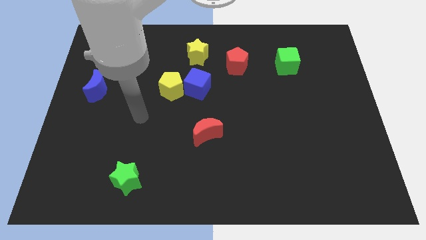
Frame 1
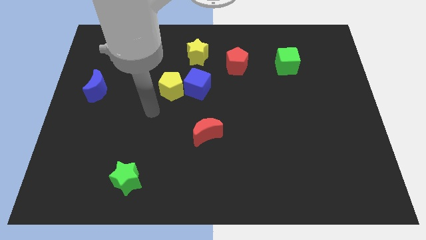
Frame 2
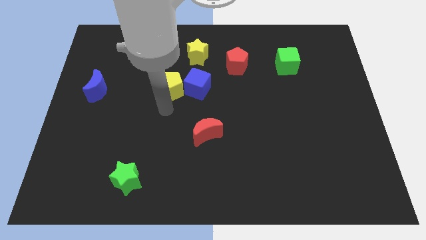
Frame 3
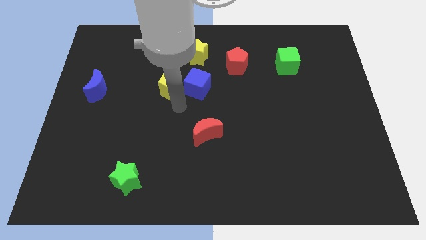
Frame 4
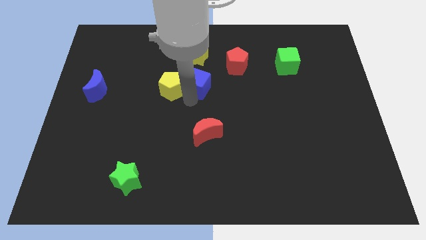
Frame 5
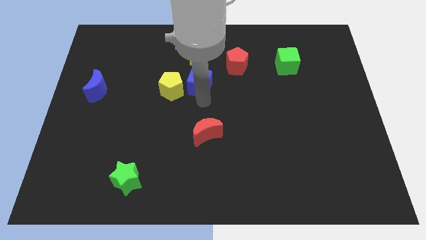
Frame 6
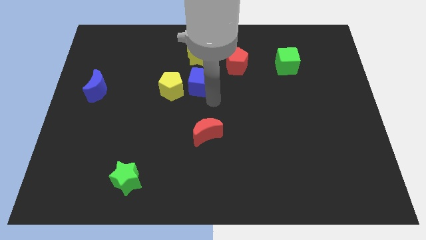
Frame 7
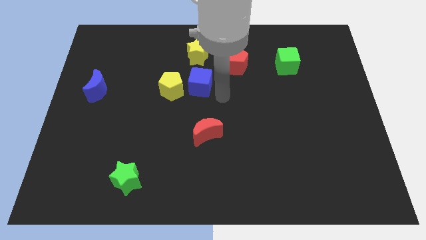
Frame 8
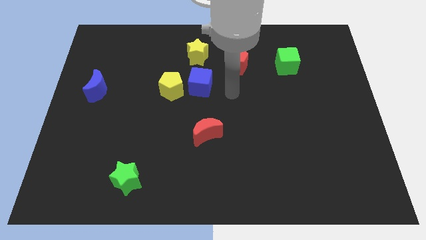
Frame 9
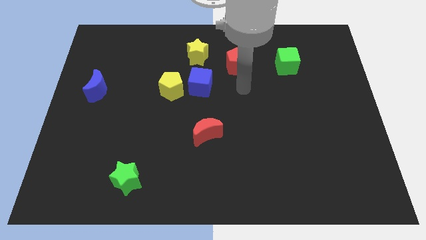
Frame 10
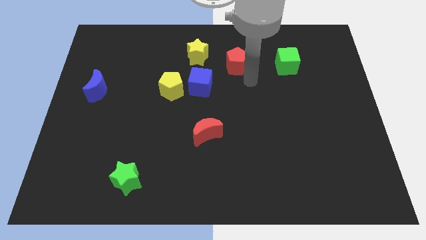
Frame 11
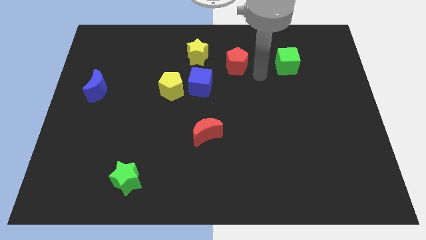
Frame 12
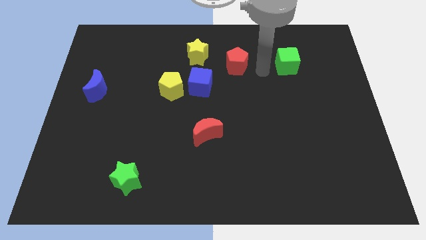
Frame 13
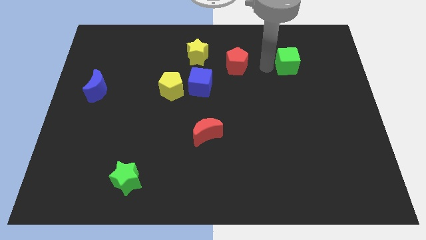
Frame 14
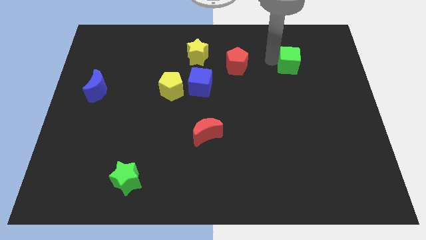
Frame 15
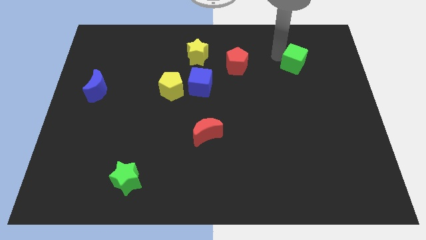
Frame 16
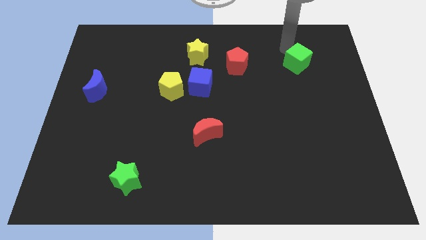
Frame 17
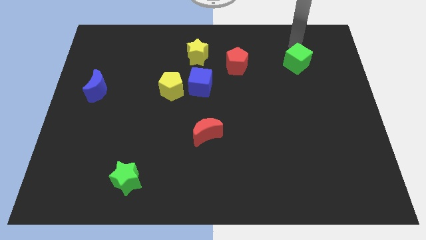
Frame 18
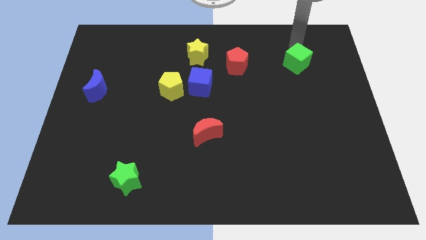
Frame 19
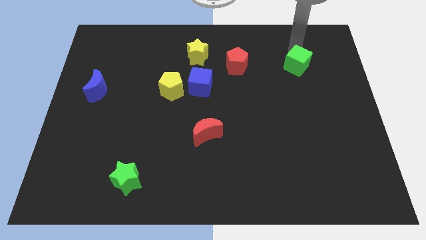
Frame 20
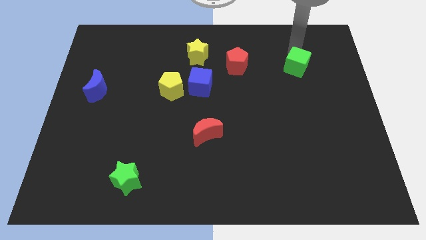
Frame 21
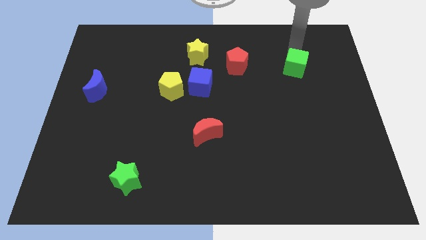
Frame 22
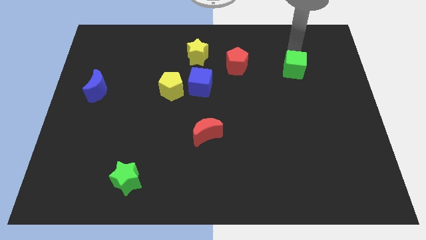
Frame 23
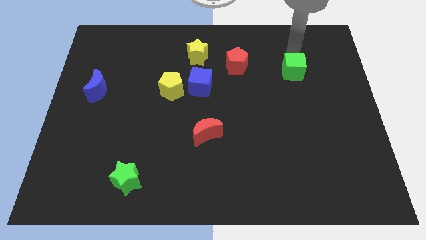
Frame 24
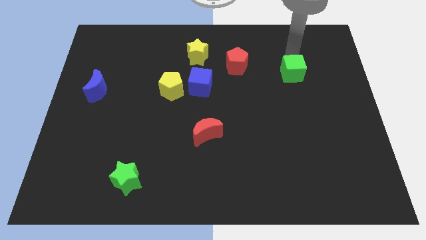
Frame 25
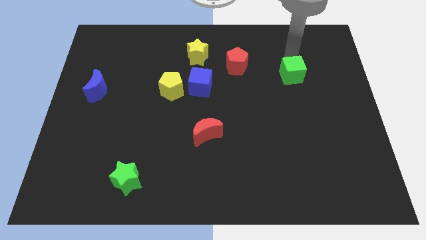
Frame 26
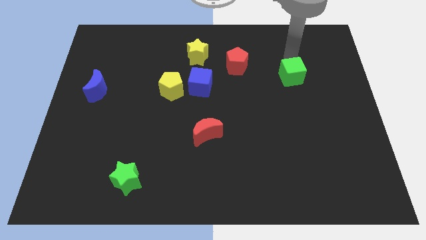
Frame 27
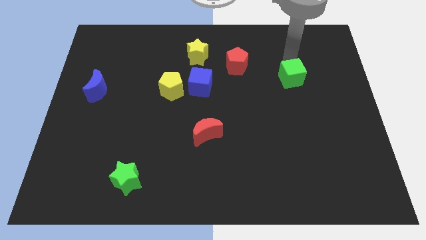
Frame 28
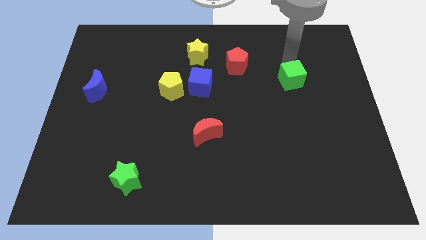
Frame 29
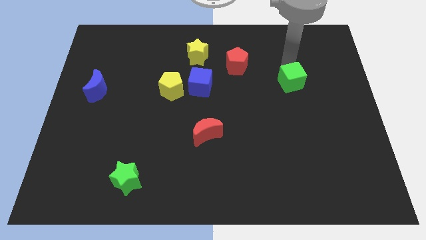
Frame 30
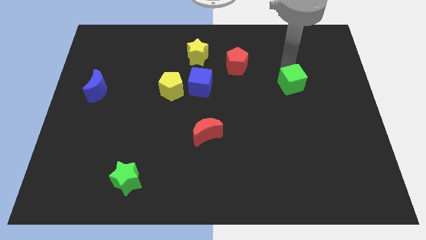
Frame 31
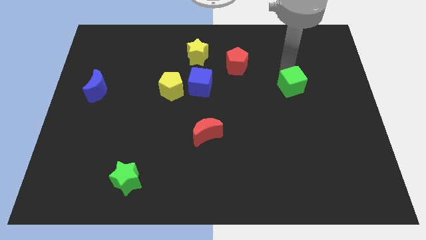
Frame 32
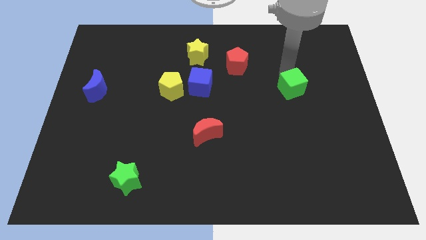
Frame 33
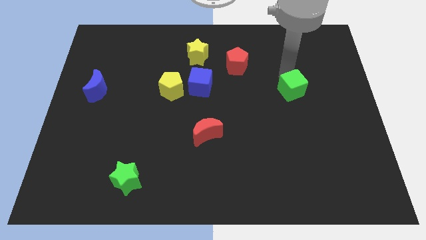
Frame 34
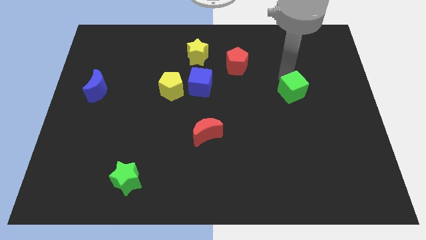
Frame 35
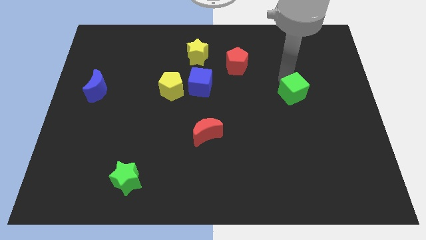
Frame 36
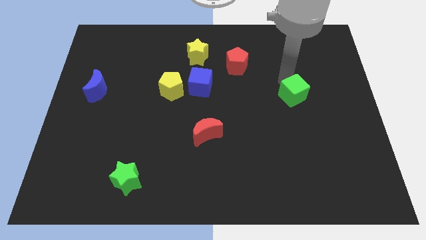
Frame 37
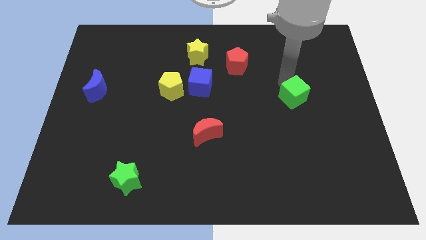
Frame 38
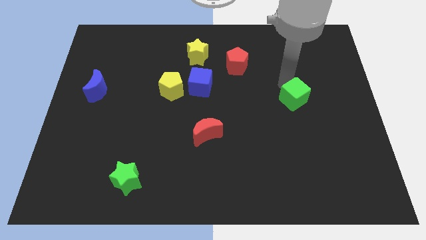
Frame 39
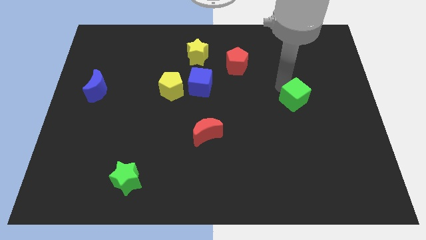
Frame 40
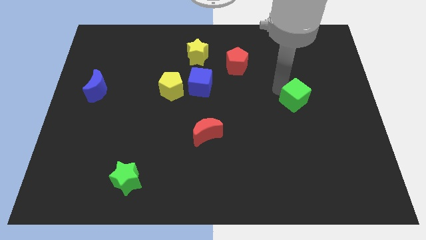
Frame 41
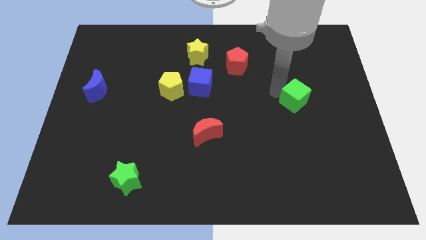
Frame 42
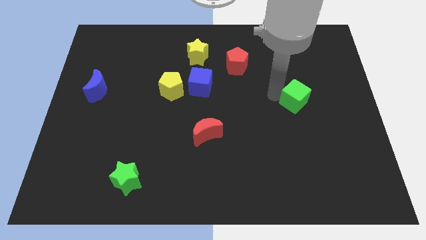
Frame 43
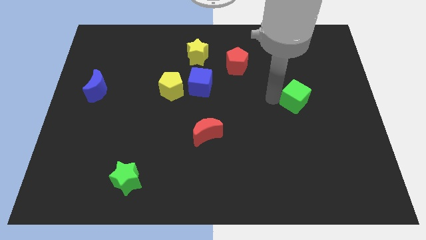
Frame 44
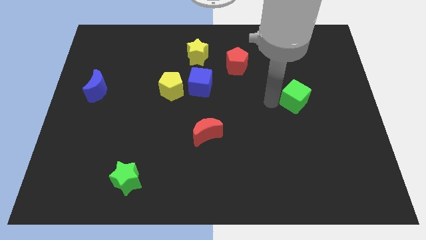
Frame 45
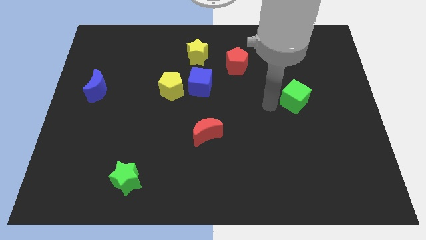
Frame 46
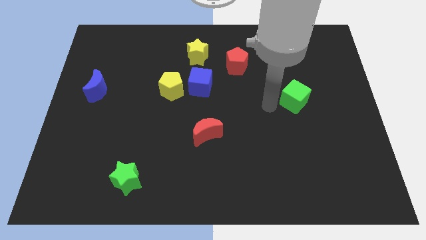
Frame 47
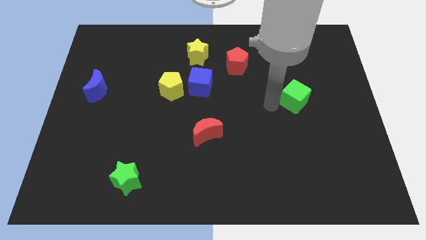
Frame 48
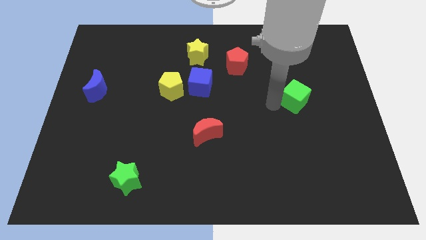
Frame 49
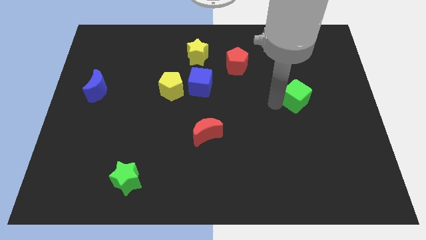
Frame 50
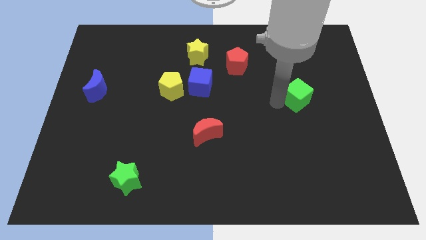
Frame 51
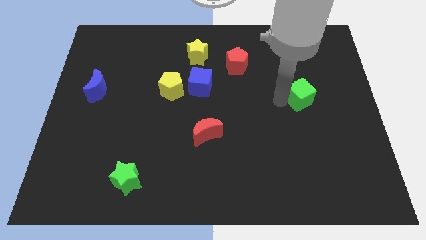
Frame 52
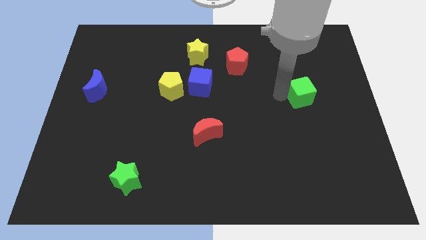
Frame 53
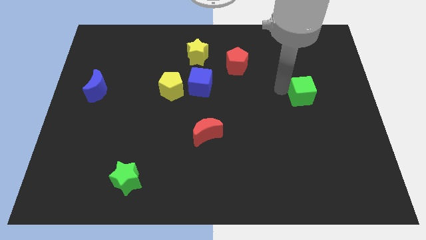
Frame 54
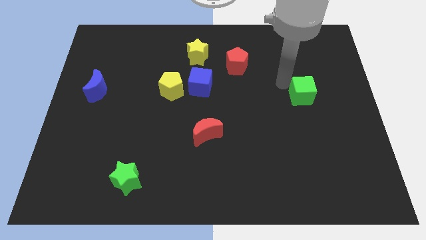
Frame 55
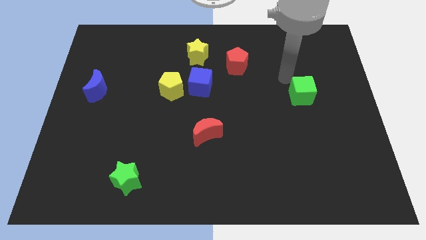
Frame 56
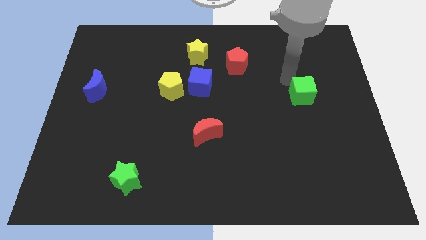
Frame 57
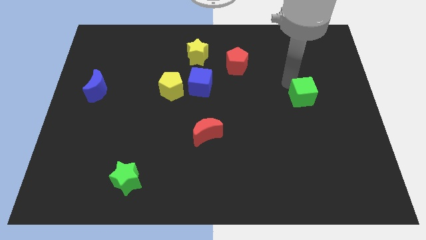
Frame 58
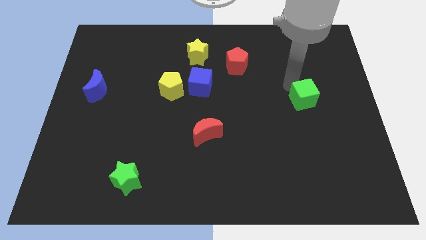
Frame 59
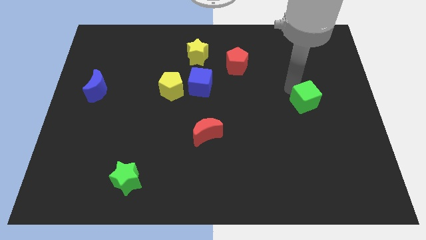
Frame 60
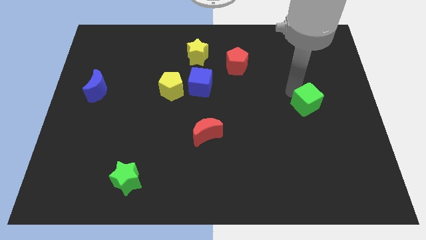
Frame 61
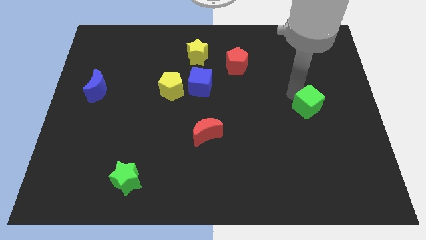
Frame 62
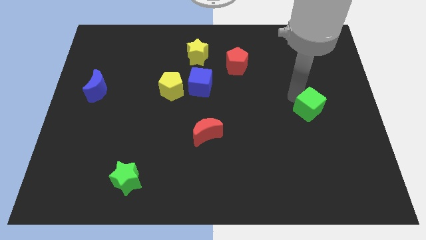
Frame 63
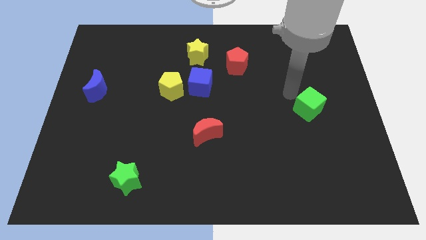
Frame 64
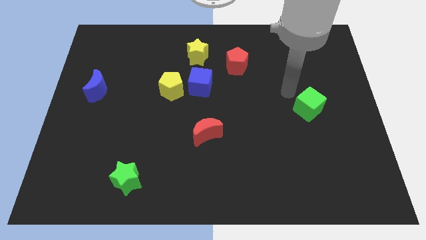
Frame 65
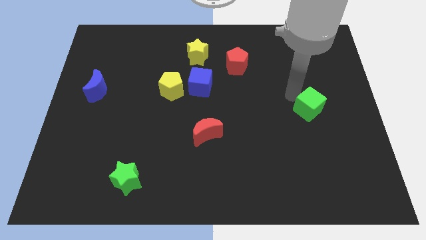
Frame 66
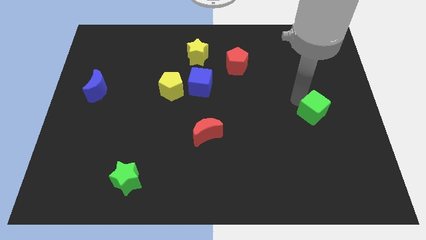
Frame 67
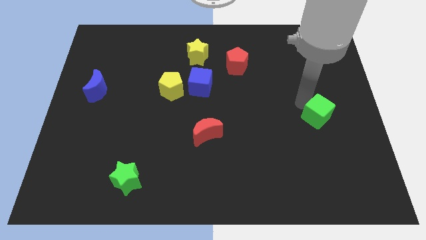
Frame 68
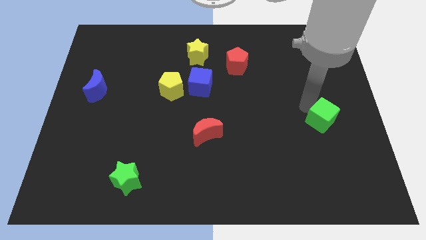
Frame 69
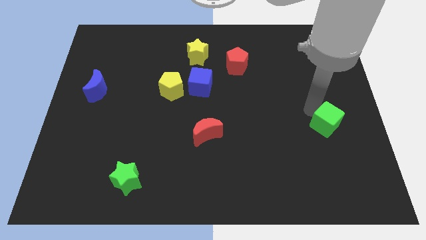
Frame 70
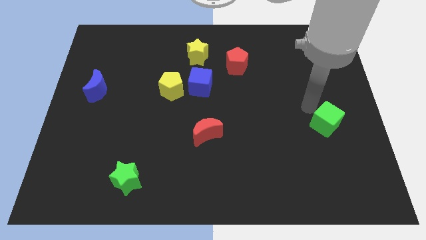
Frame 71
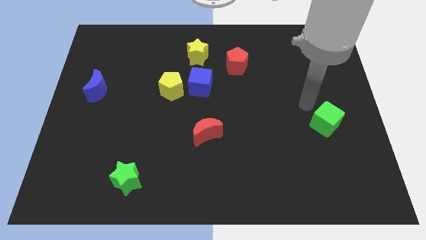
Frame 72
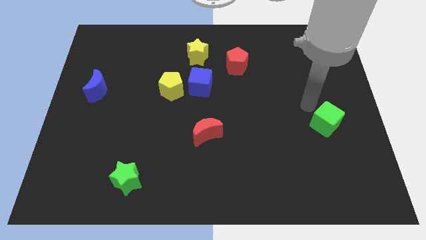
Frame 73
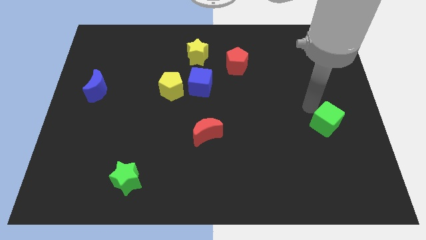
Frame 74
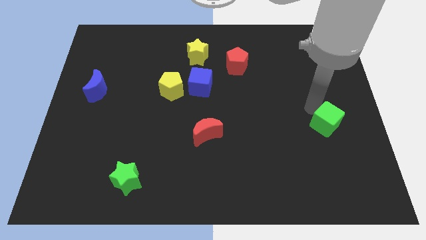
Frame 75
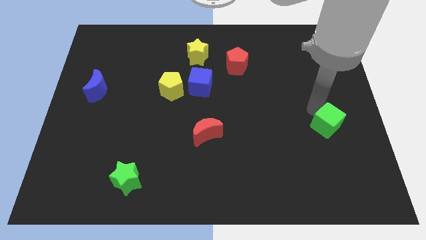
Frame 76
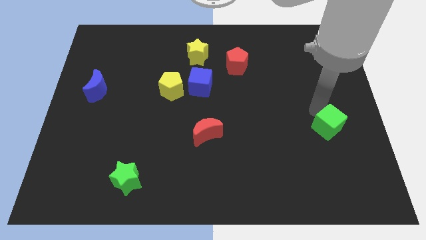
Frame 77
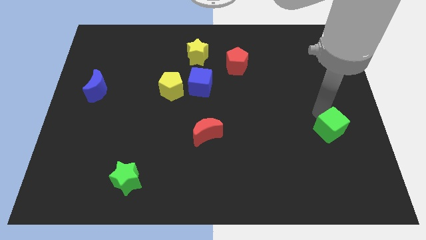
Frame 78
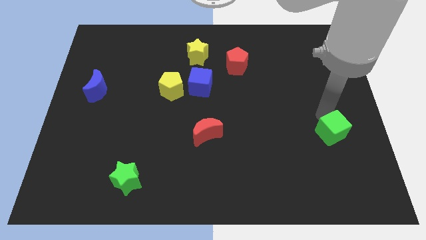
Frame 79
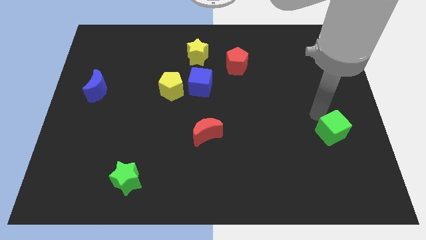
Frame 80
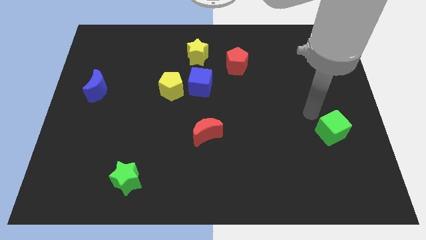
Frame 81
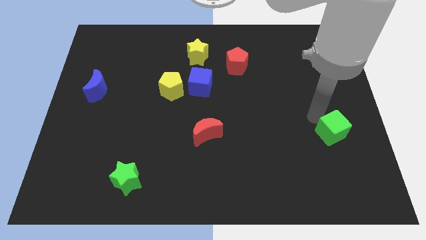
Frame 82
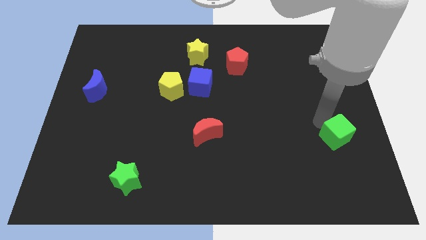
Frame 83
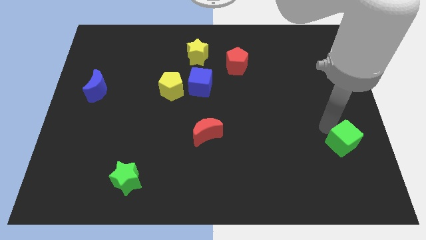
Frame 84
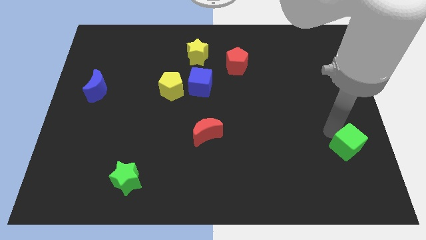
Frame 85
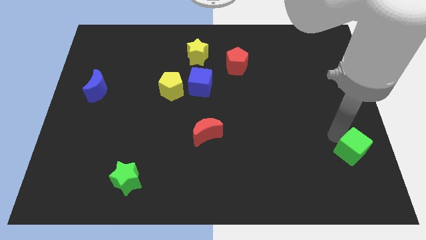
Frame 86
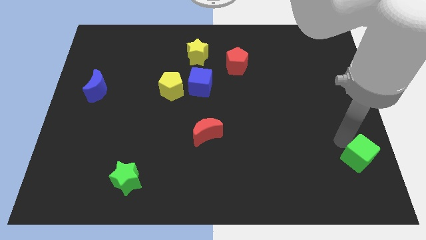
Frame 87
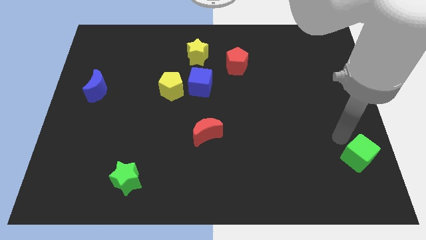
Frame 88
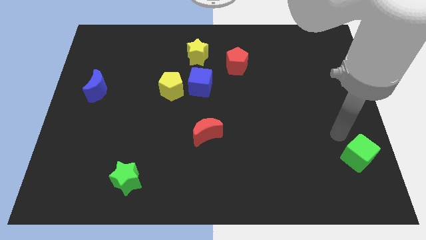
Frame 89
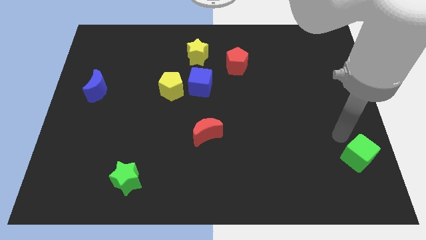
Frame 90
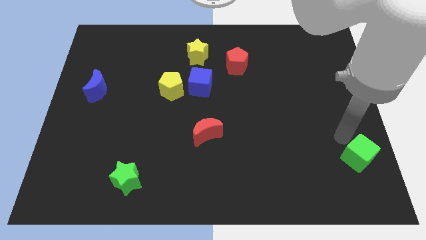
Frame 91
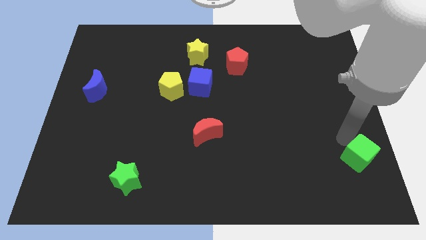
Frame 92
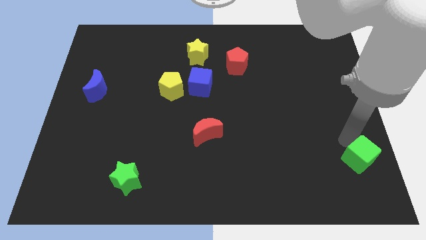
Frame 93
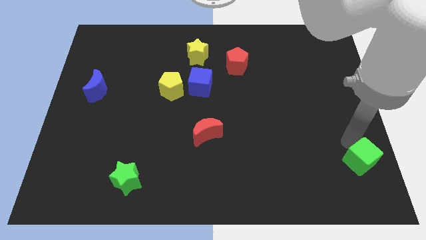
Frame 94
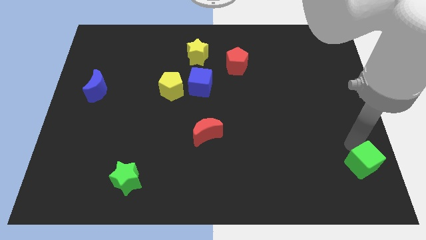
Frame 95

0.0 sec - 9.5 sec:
put the green cube to the bottom right corner
